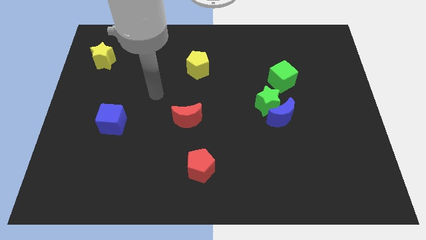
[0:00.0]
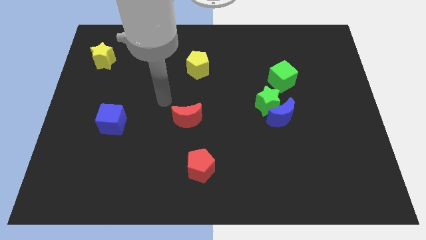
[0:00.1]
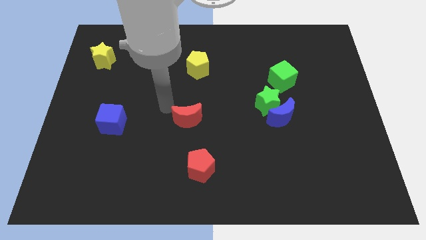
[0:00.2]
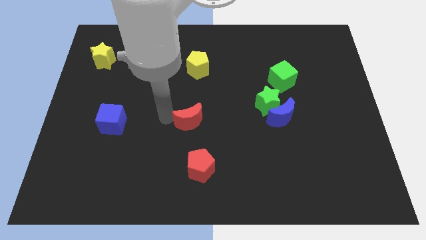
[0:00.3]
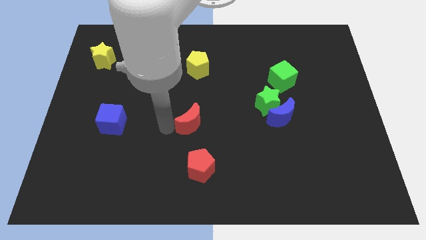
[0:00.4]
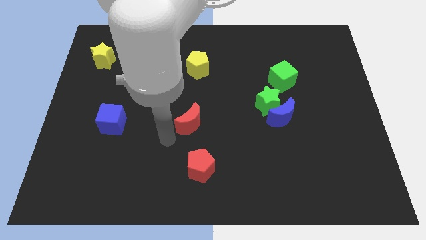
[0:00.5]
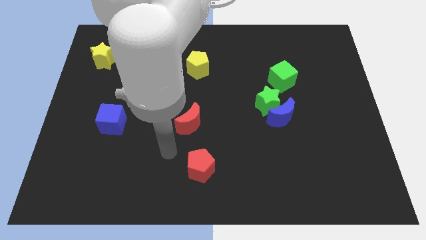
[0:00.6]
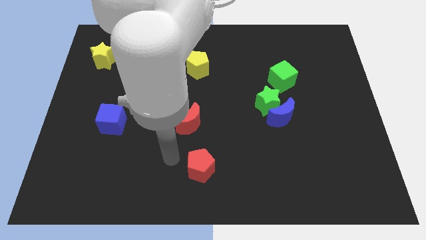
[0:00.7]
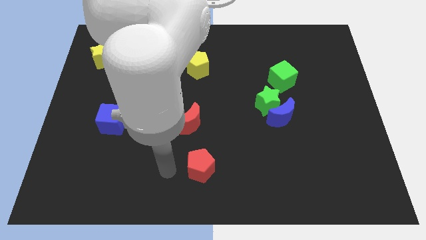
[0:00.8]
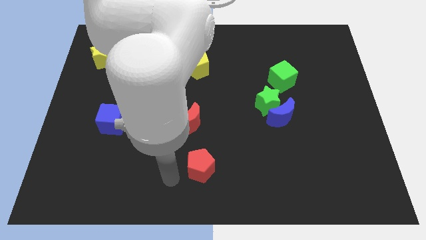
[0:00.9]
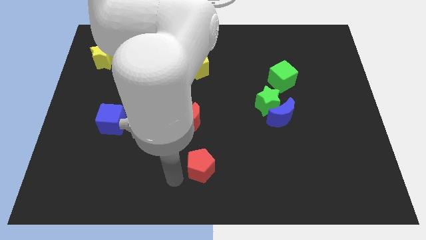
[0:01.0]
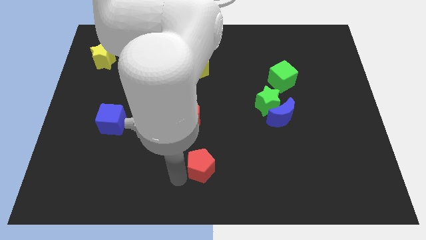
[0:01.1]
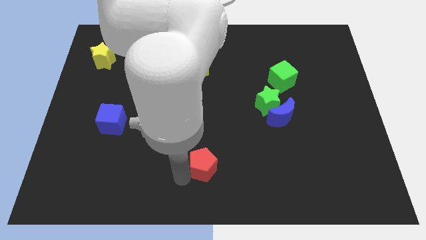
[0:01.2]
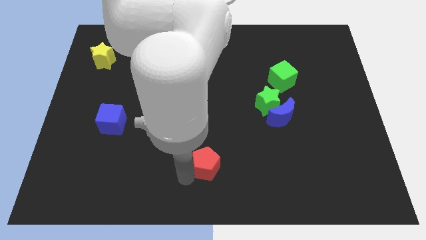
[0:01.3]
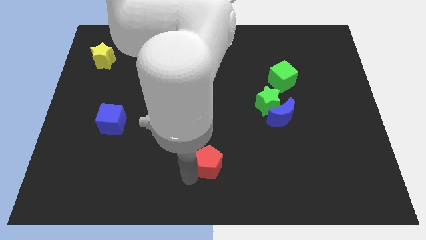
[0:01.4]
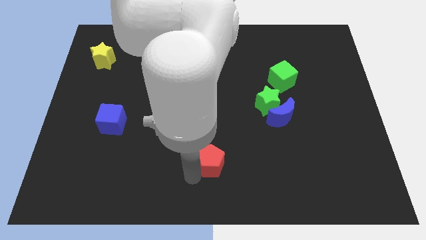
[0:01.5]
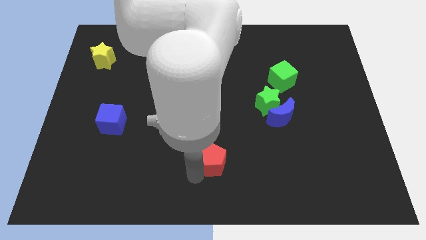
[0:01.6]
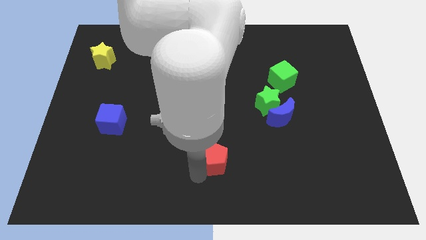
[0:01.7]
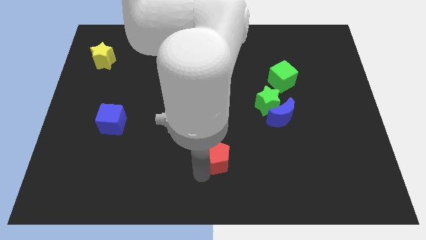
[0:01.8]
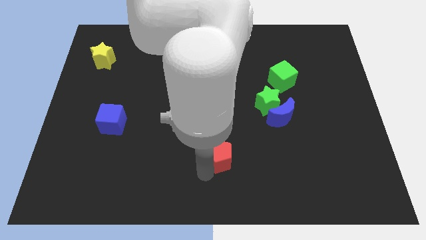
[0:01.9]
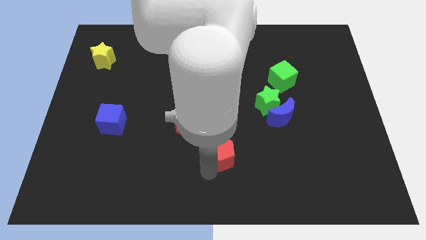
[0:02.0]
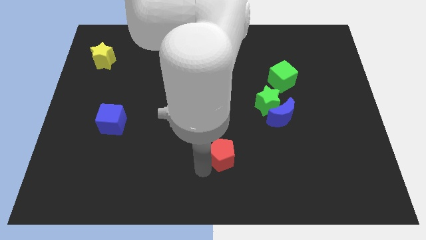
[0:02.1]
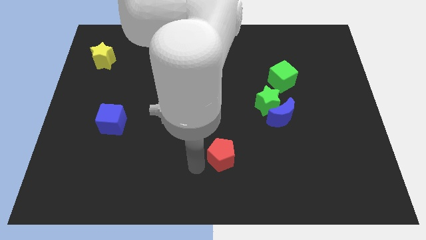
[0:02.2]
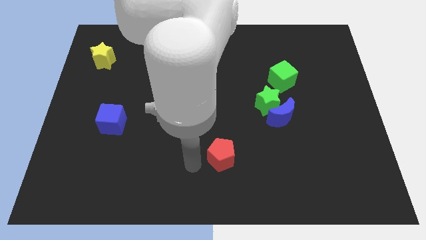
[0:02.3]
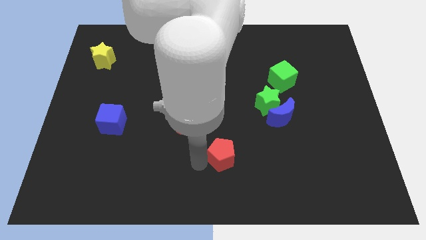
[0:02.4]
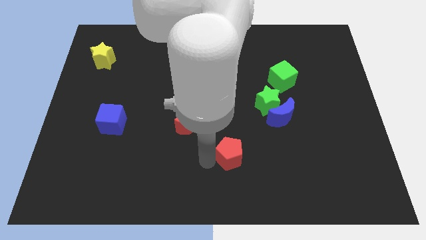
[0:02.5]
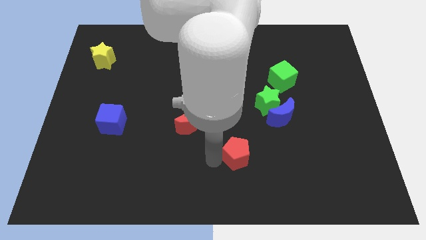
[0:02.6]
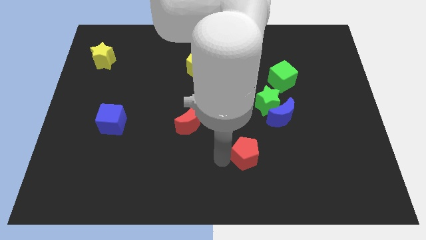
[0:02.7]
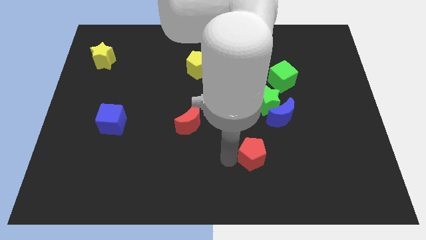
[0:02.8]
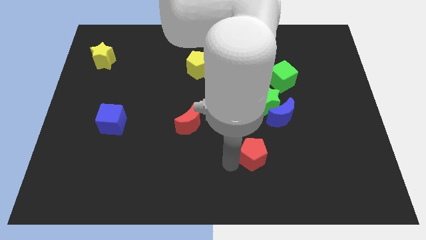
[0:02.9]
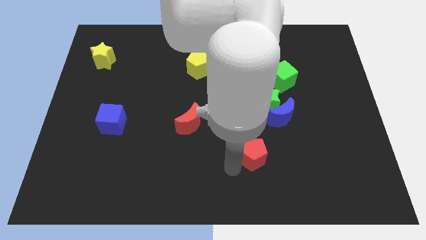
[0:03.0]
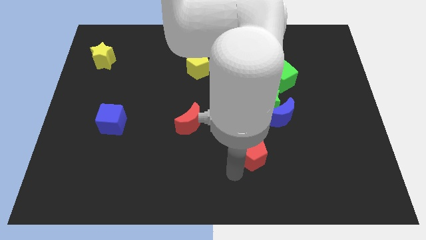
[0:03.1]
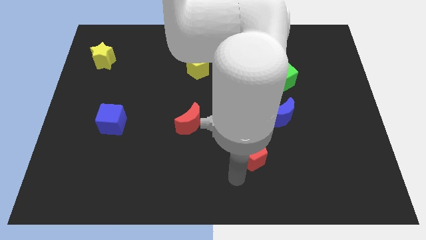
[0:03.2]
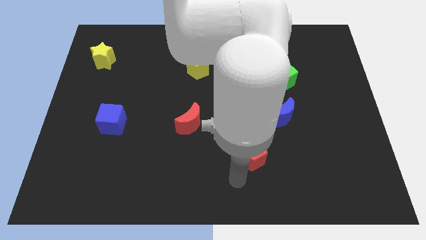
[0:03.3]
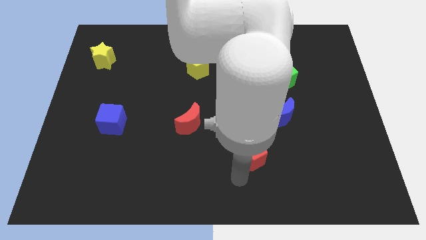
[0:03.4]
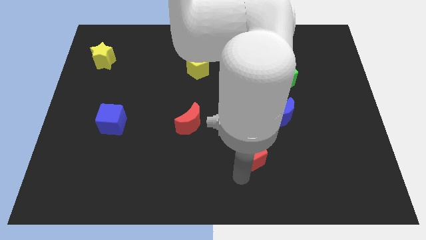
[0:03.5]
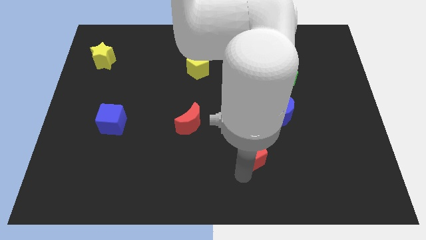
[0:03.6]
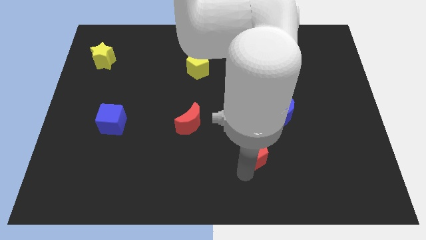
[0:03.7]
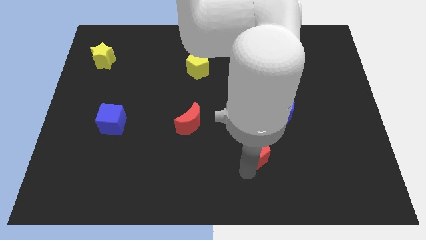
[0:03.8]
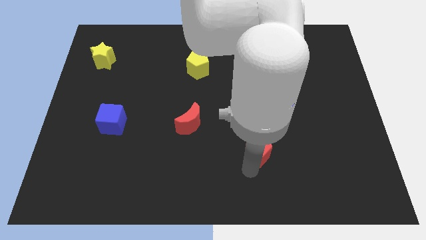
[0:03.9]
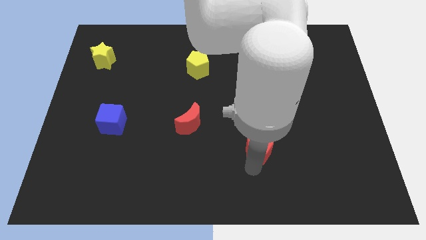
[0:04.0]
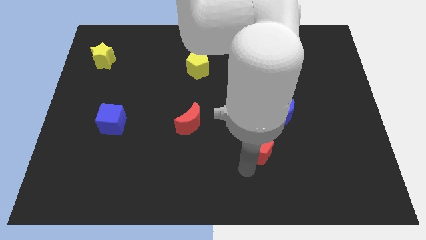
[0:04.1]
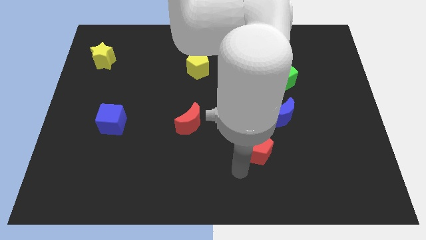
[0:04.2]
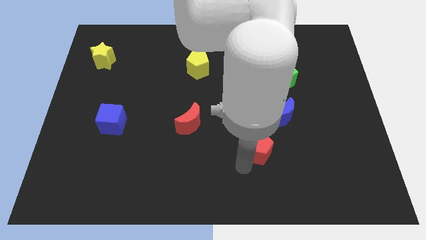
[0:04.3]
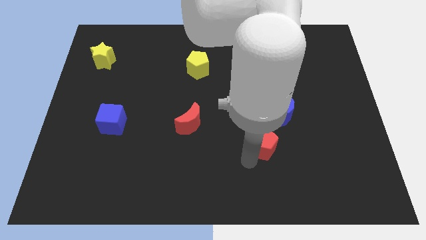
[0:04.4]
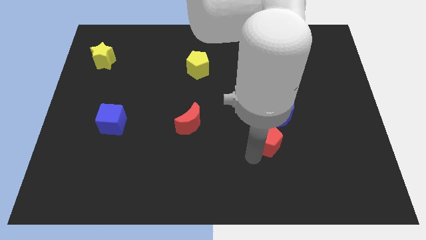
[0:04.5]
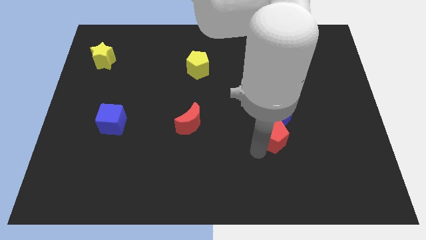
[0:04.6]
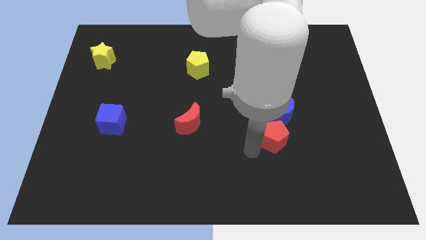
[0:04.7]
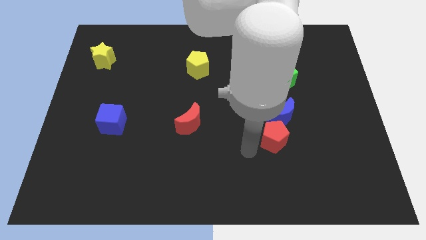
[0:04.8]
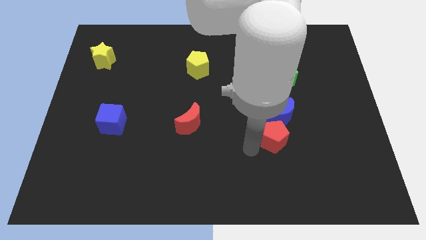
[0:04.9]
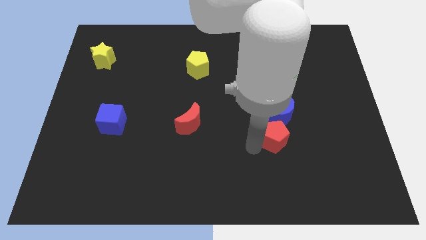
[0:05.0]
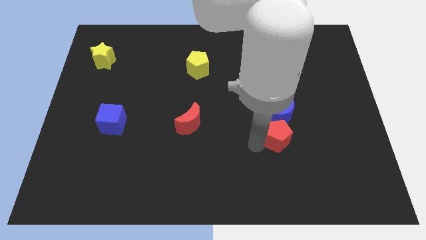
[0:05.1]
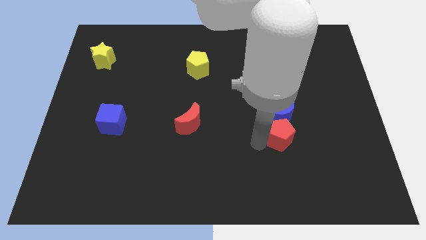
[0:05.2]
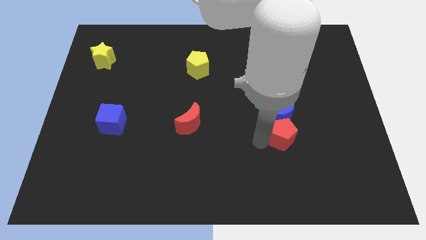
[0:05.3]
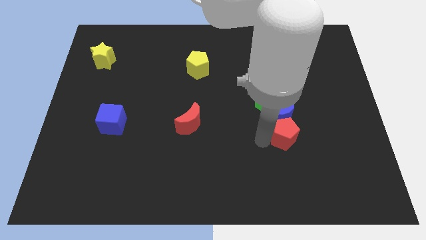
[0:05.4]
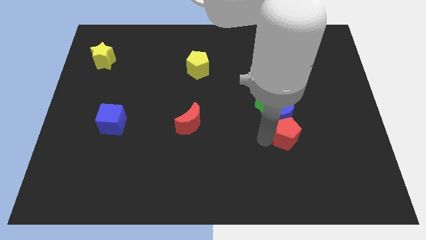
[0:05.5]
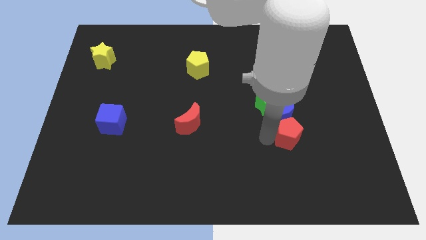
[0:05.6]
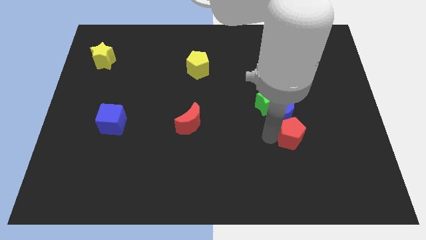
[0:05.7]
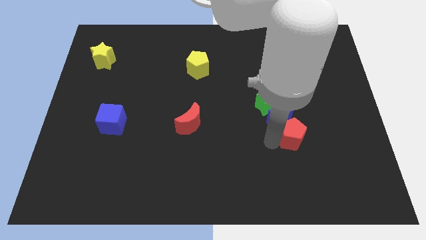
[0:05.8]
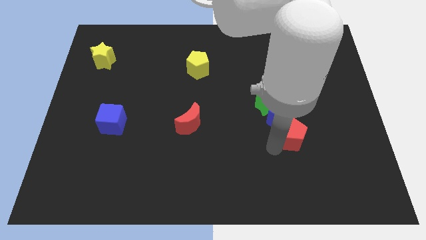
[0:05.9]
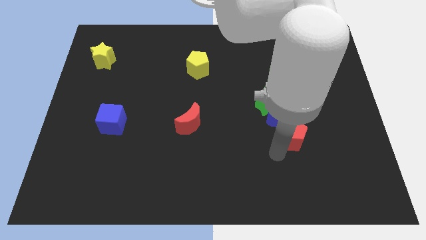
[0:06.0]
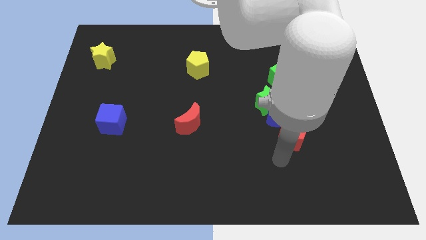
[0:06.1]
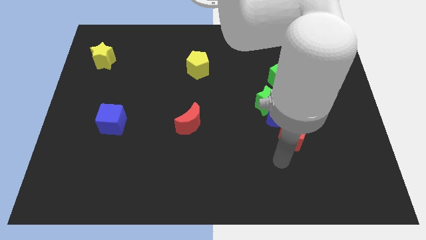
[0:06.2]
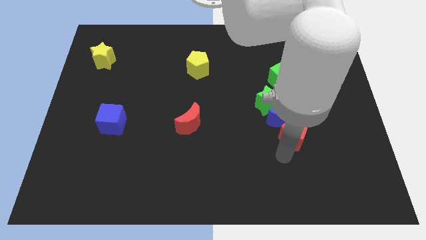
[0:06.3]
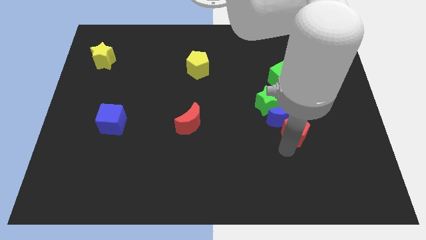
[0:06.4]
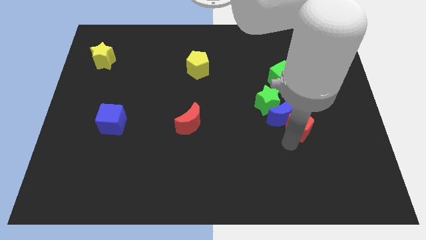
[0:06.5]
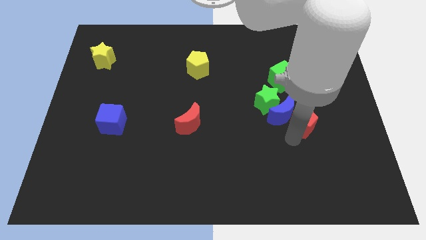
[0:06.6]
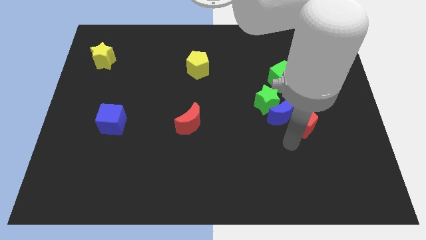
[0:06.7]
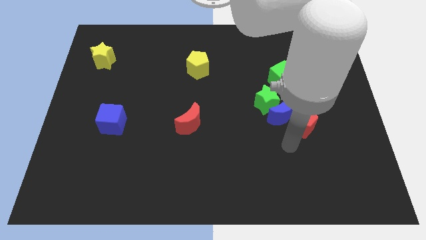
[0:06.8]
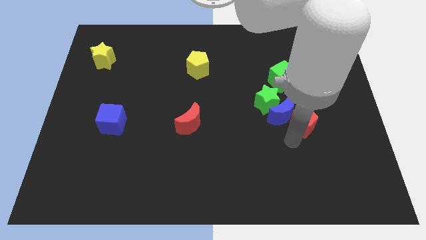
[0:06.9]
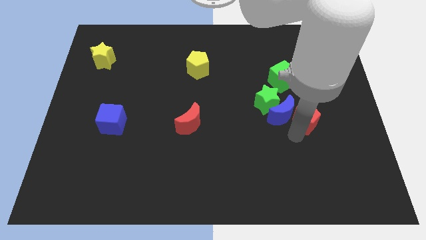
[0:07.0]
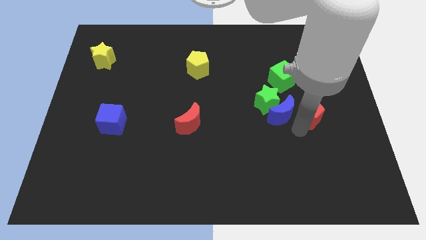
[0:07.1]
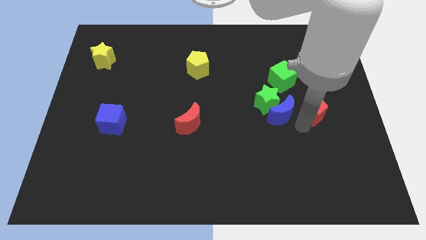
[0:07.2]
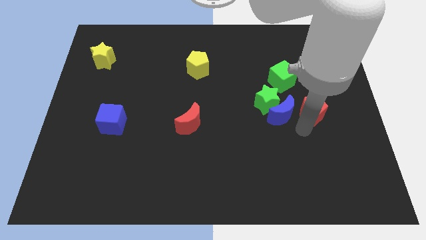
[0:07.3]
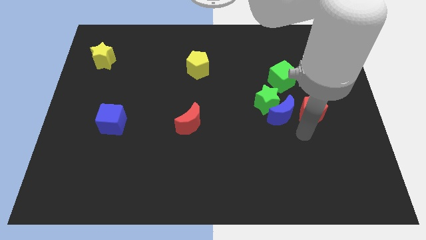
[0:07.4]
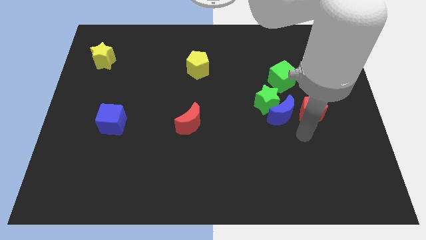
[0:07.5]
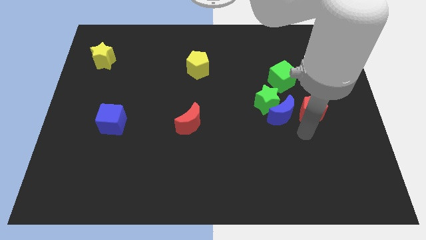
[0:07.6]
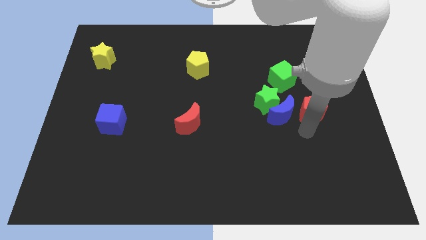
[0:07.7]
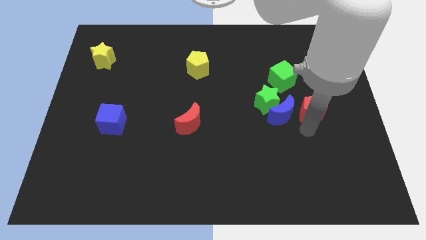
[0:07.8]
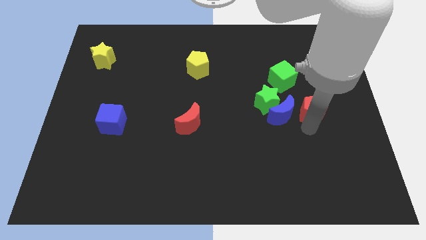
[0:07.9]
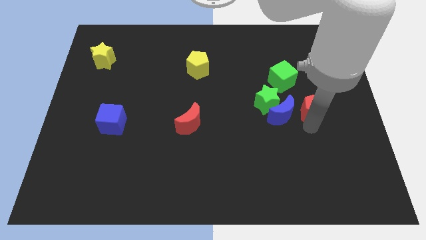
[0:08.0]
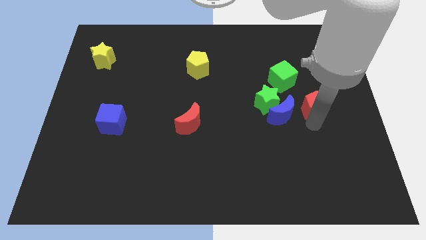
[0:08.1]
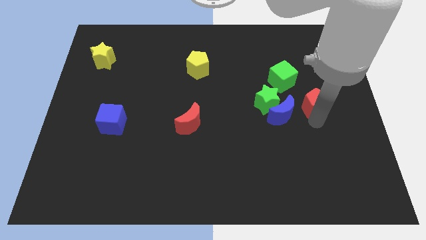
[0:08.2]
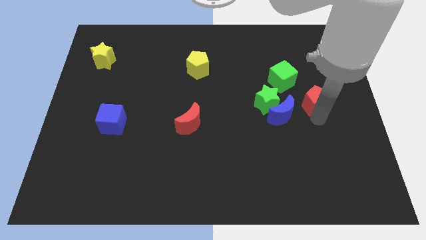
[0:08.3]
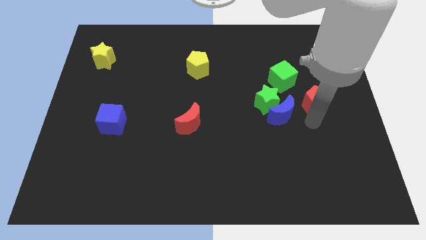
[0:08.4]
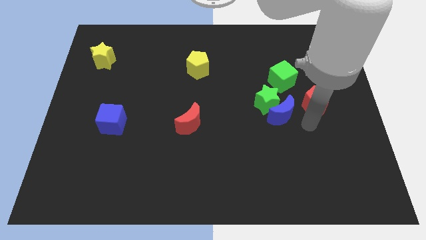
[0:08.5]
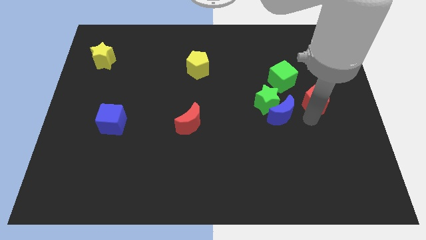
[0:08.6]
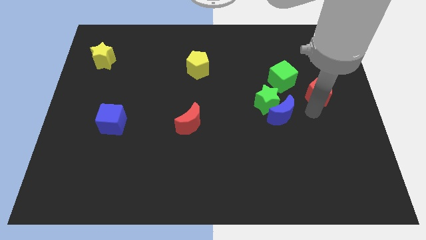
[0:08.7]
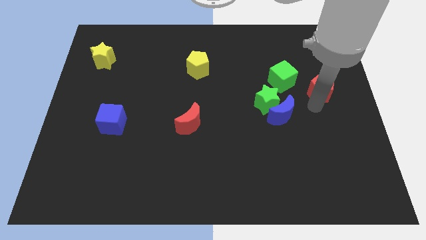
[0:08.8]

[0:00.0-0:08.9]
slide the red pentagon to the right of the green cube
